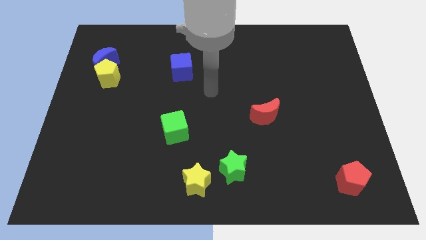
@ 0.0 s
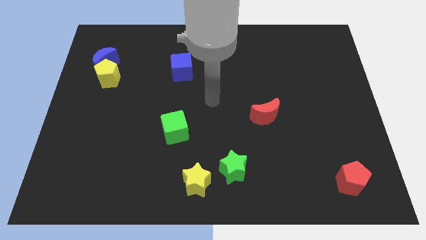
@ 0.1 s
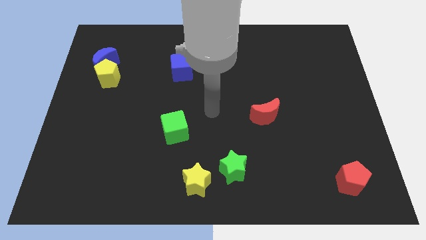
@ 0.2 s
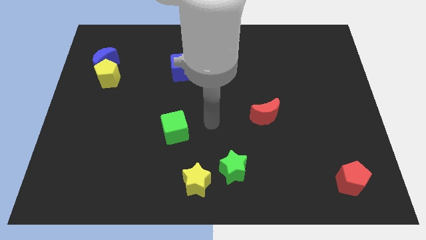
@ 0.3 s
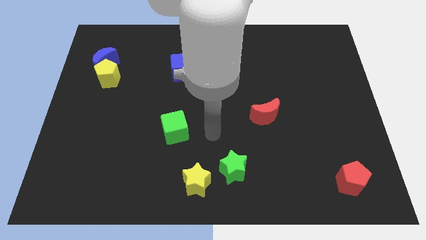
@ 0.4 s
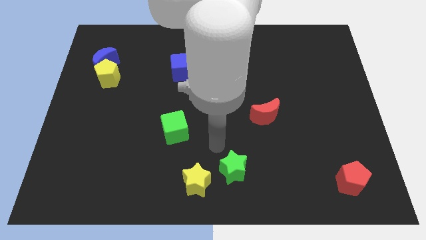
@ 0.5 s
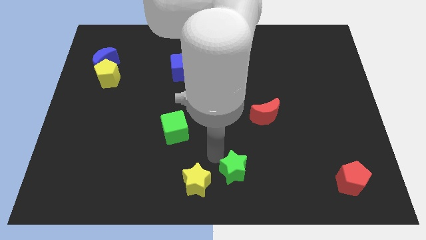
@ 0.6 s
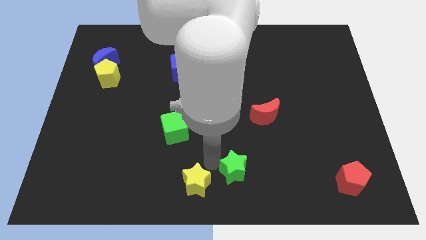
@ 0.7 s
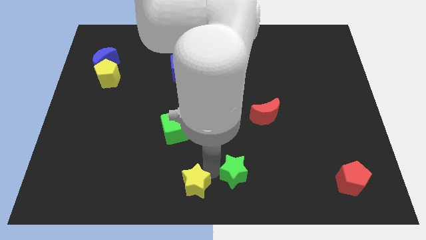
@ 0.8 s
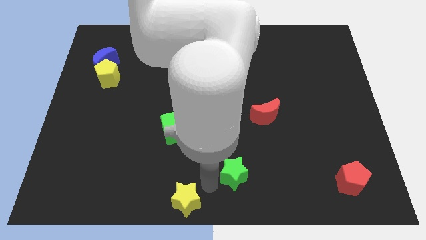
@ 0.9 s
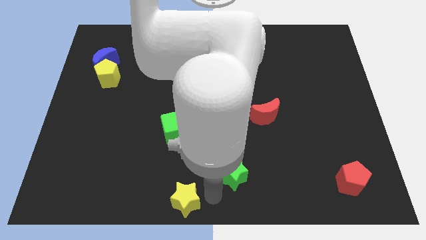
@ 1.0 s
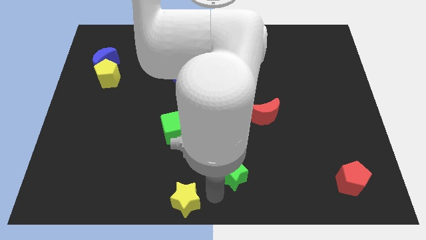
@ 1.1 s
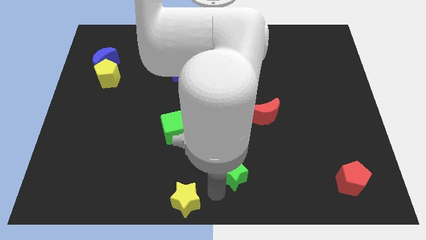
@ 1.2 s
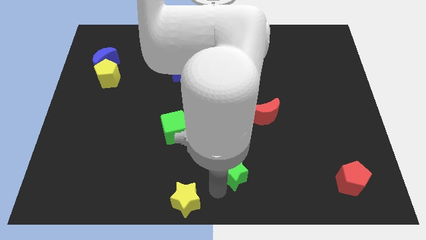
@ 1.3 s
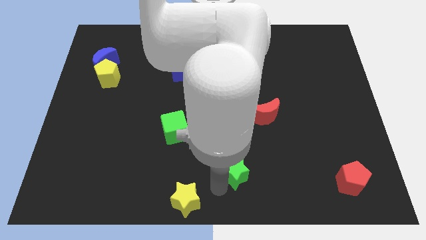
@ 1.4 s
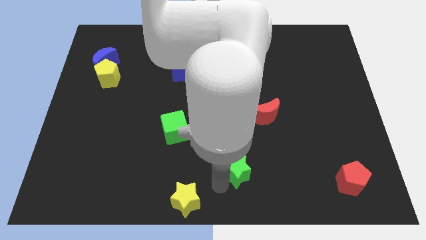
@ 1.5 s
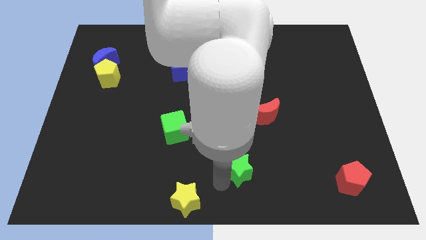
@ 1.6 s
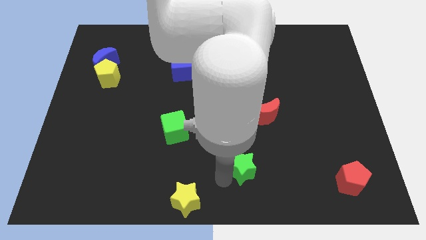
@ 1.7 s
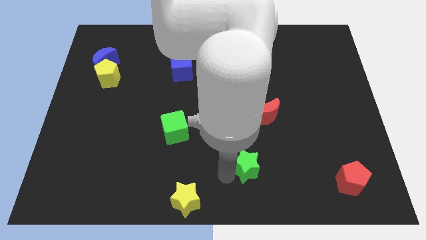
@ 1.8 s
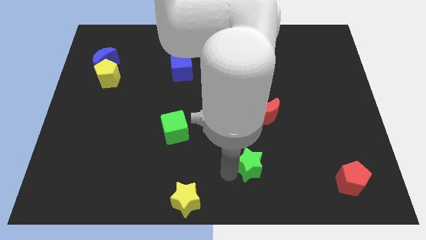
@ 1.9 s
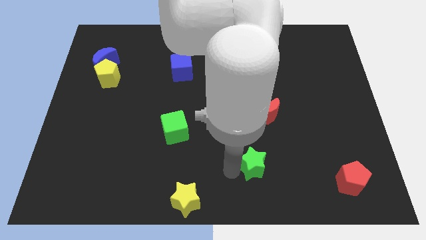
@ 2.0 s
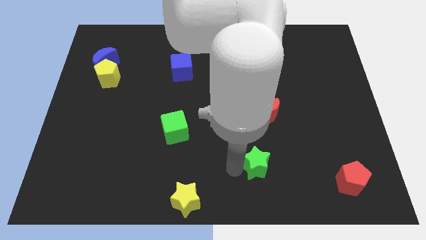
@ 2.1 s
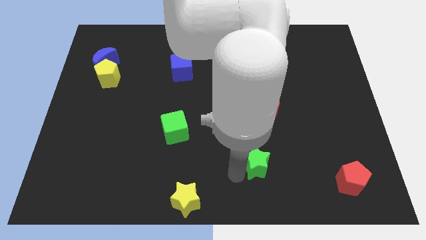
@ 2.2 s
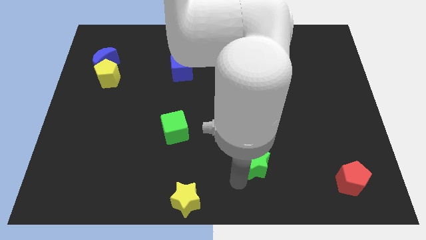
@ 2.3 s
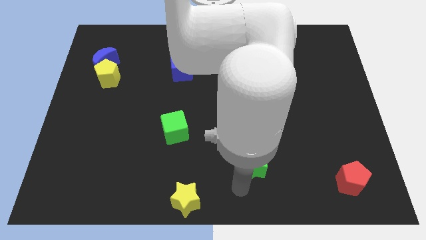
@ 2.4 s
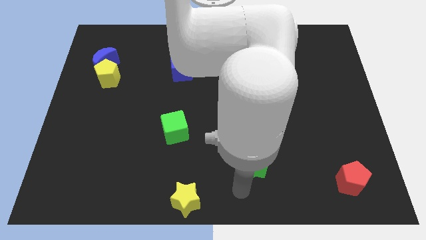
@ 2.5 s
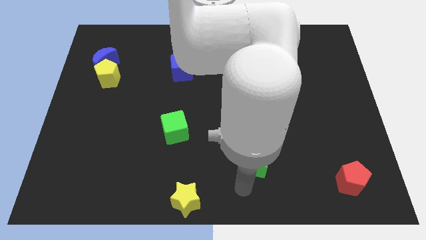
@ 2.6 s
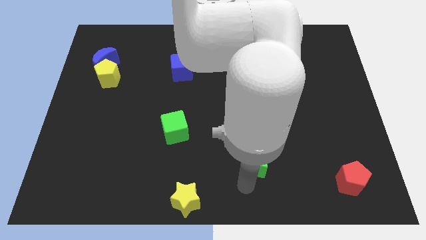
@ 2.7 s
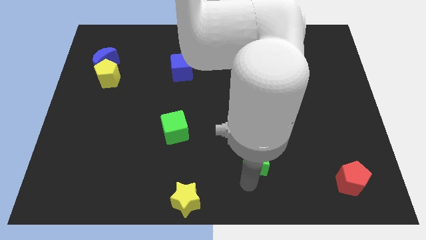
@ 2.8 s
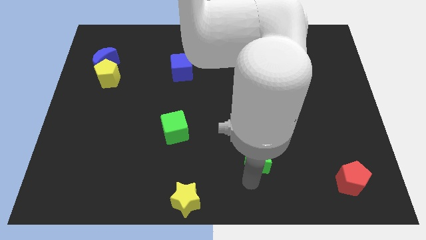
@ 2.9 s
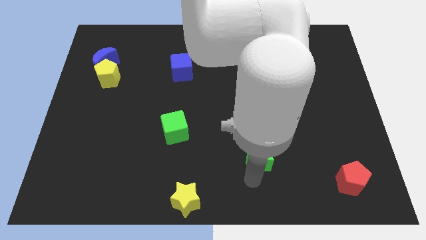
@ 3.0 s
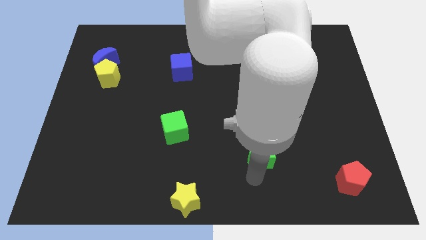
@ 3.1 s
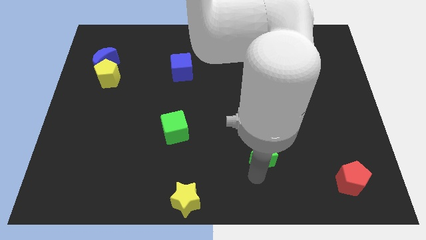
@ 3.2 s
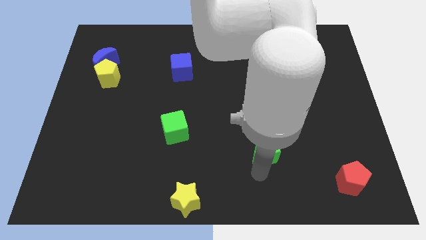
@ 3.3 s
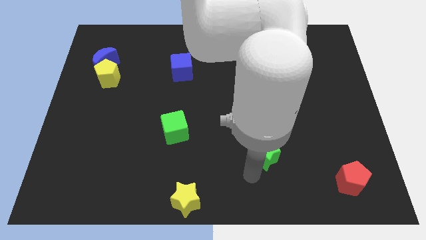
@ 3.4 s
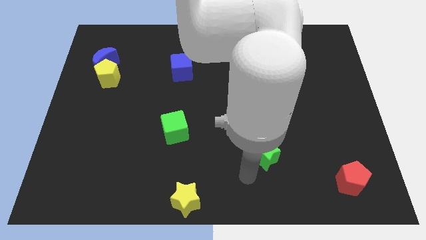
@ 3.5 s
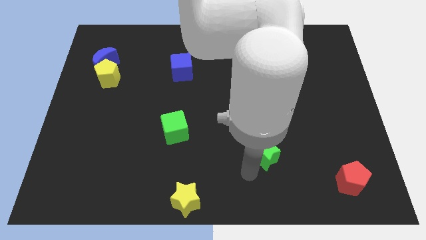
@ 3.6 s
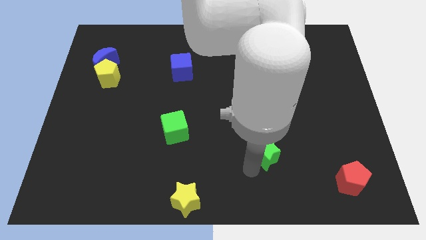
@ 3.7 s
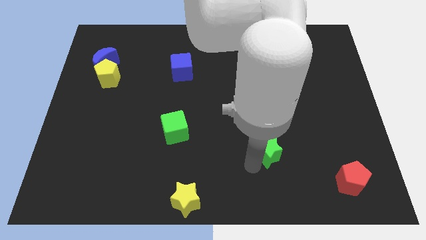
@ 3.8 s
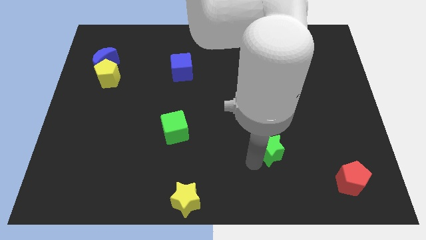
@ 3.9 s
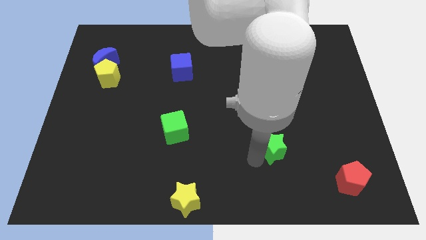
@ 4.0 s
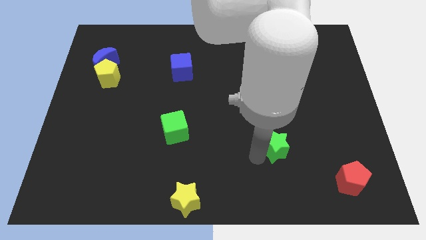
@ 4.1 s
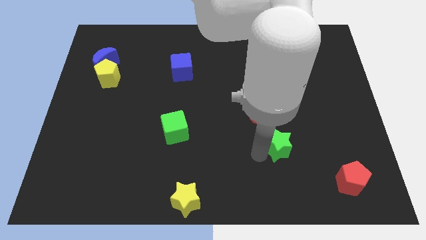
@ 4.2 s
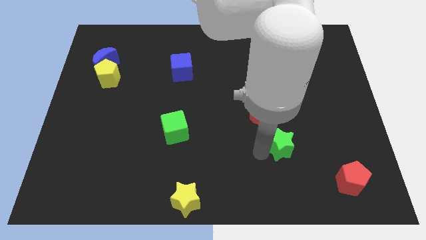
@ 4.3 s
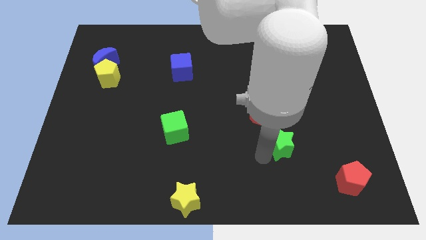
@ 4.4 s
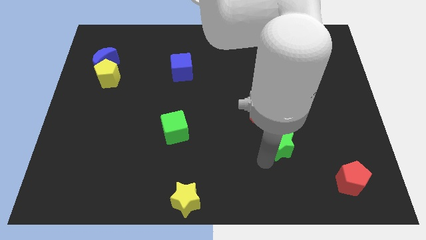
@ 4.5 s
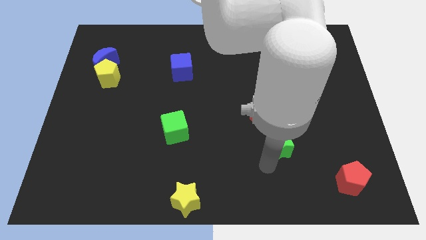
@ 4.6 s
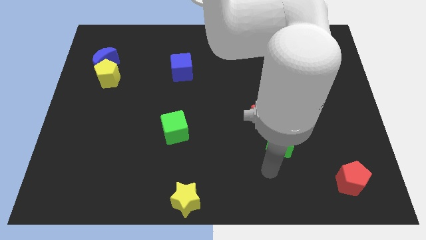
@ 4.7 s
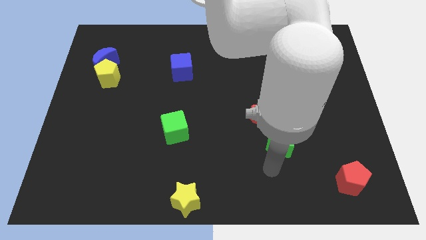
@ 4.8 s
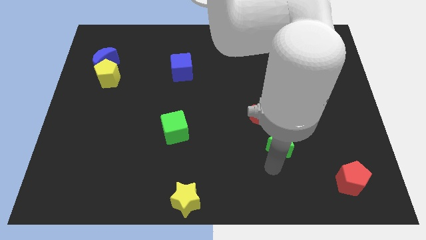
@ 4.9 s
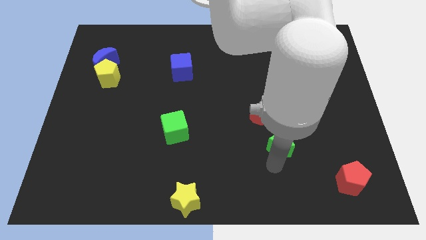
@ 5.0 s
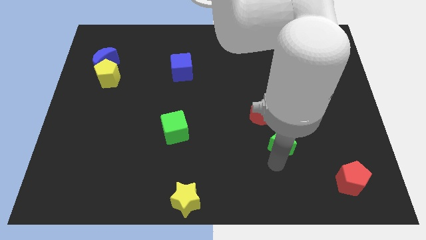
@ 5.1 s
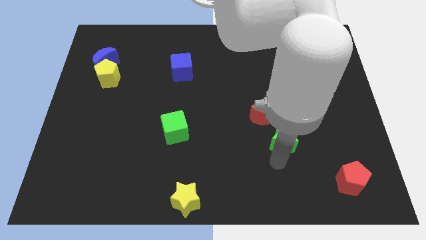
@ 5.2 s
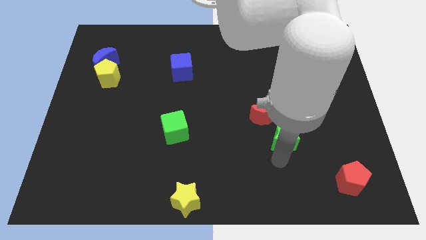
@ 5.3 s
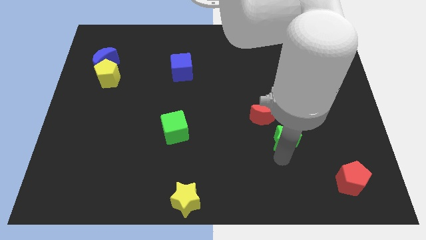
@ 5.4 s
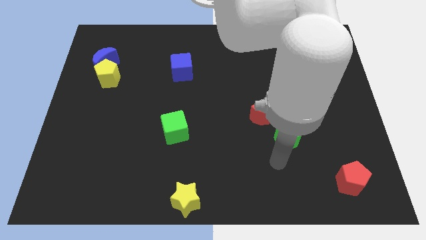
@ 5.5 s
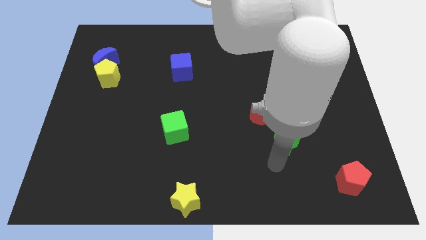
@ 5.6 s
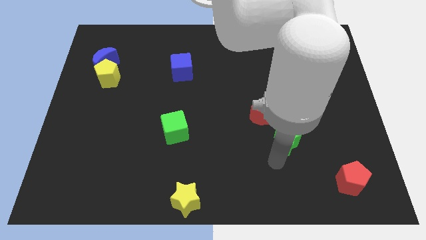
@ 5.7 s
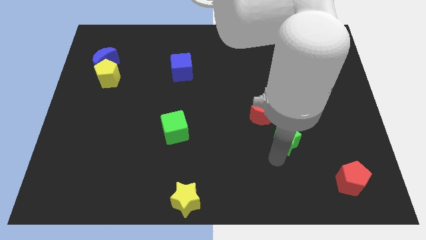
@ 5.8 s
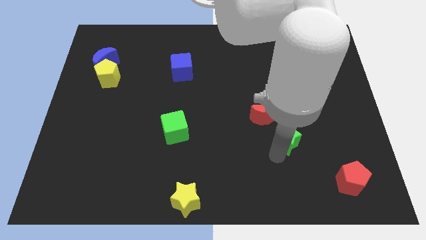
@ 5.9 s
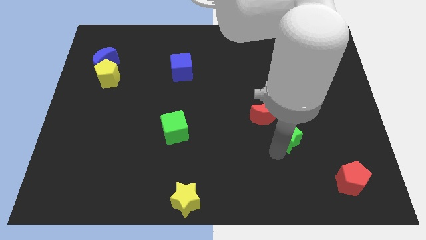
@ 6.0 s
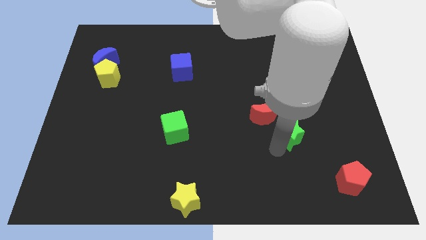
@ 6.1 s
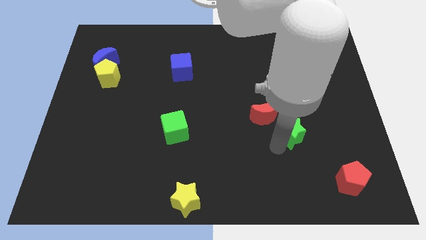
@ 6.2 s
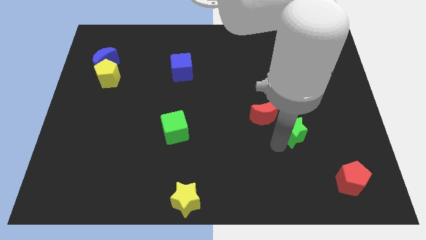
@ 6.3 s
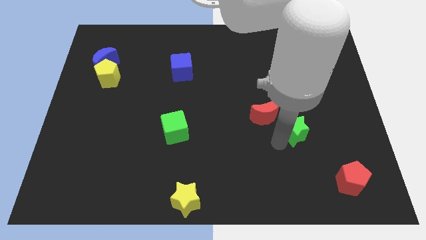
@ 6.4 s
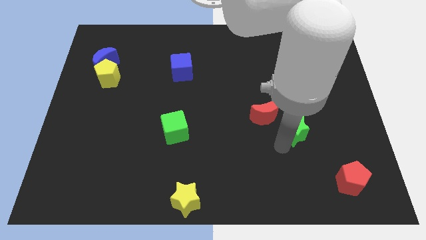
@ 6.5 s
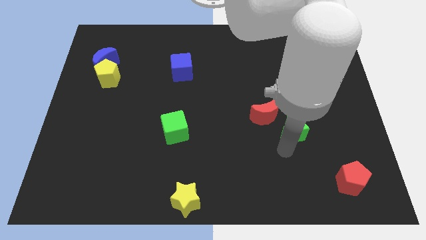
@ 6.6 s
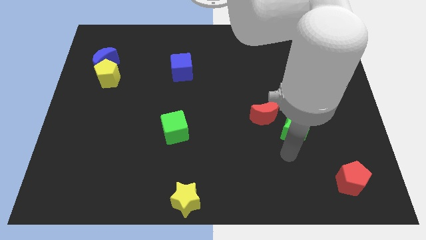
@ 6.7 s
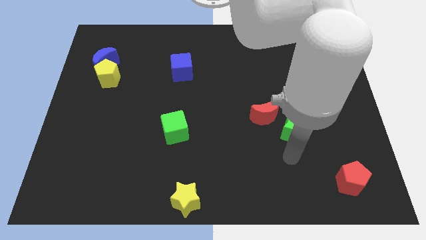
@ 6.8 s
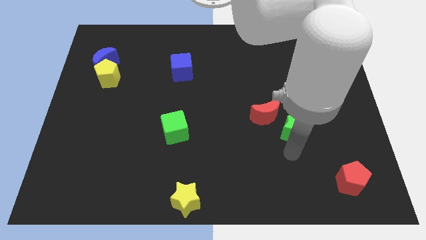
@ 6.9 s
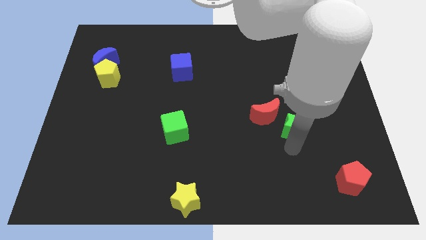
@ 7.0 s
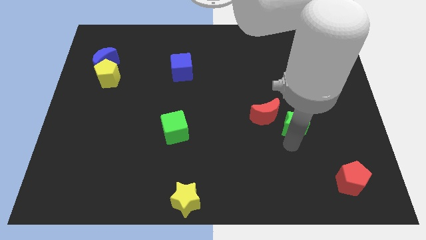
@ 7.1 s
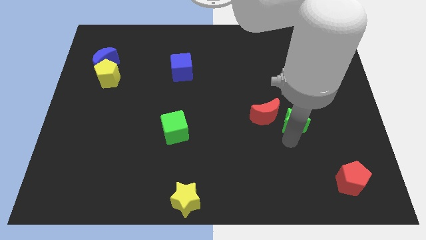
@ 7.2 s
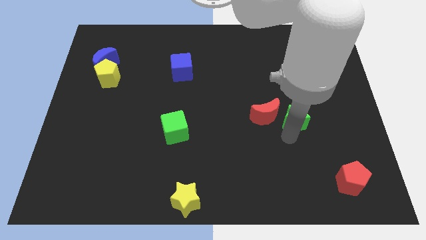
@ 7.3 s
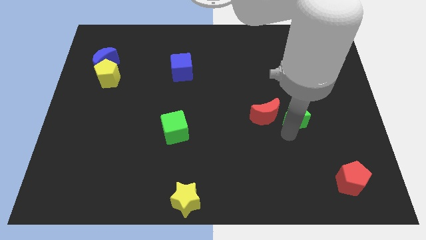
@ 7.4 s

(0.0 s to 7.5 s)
push the green star diagonally upwards and right

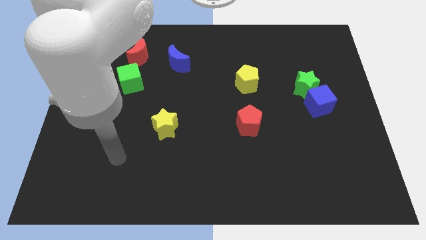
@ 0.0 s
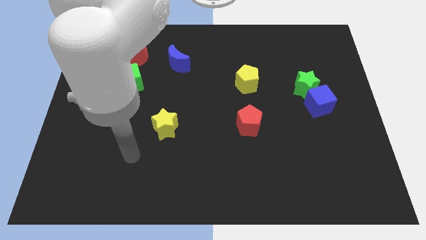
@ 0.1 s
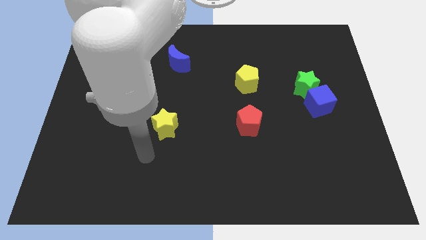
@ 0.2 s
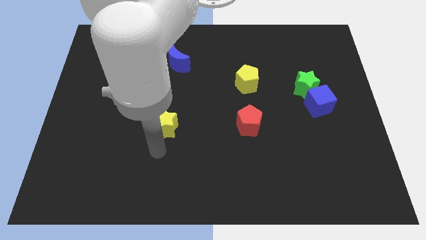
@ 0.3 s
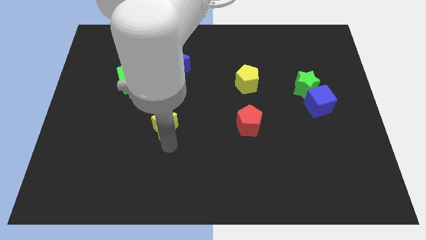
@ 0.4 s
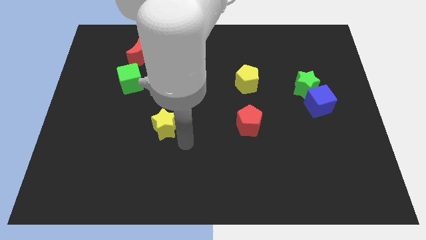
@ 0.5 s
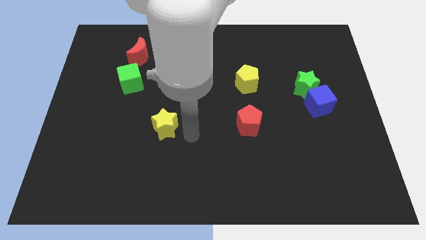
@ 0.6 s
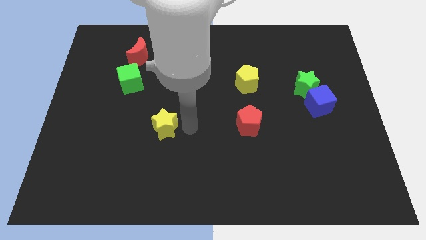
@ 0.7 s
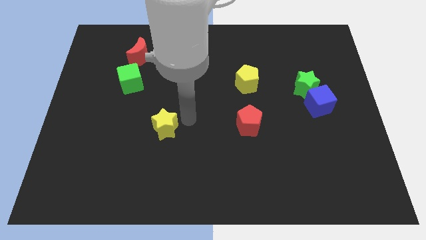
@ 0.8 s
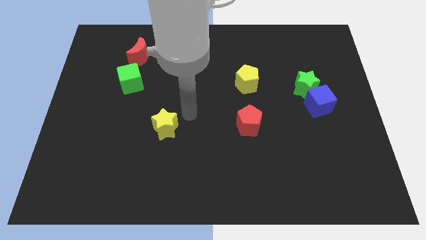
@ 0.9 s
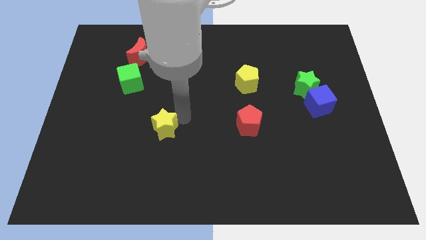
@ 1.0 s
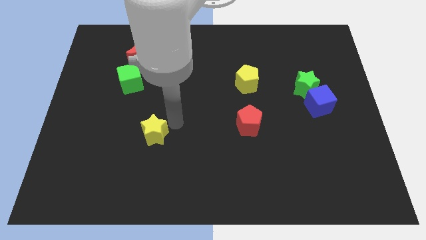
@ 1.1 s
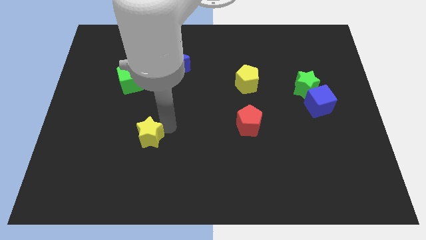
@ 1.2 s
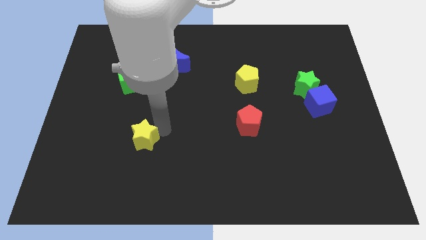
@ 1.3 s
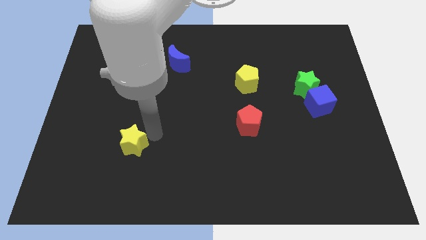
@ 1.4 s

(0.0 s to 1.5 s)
slide the yellow star somewhat downwards and left
